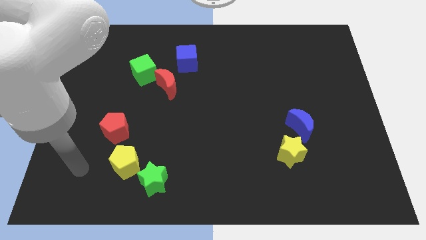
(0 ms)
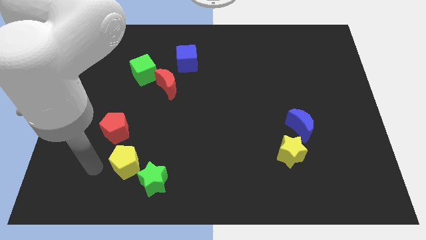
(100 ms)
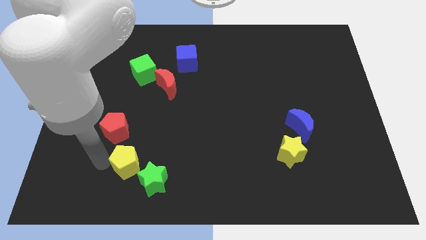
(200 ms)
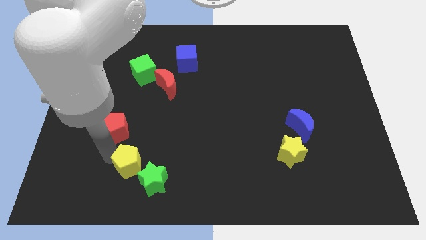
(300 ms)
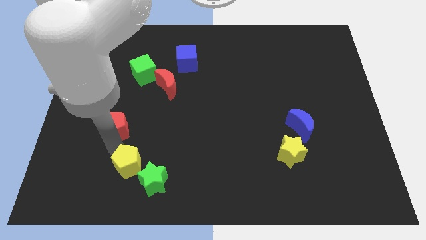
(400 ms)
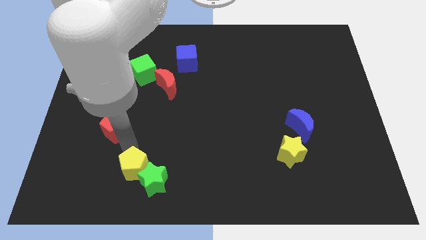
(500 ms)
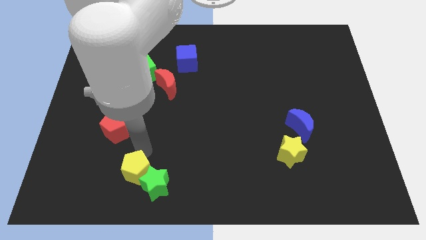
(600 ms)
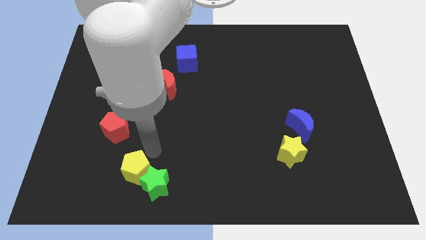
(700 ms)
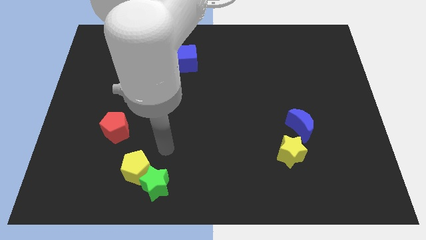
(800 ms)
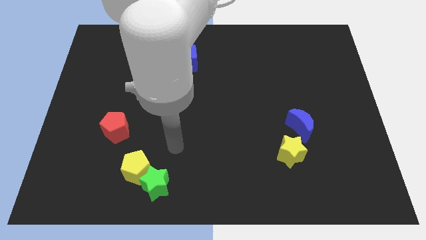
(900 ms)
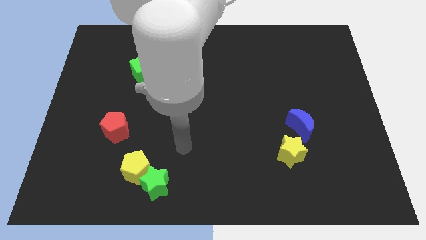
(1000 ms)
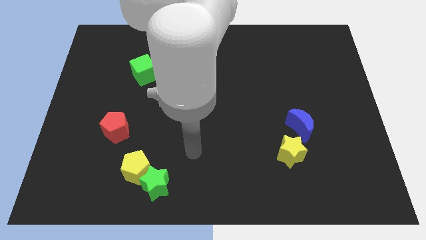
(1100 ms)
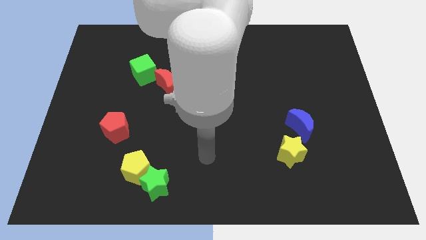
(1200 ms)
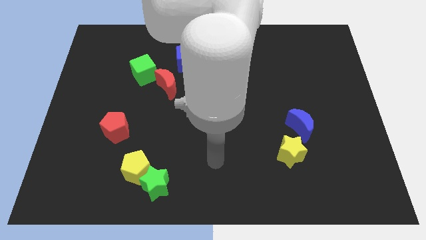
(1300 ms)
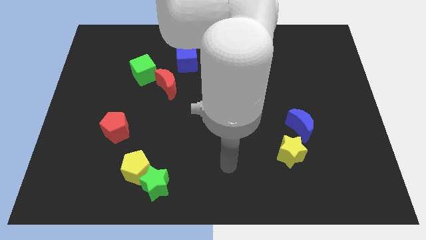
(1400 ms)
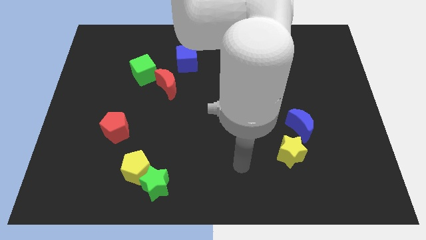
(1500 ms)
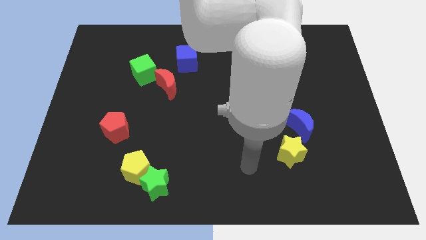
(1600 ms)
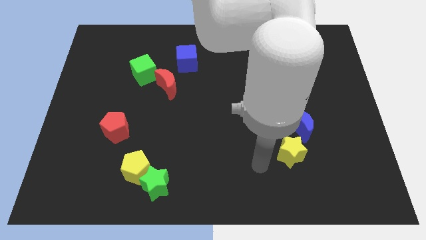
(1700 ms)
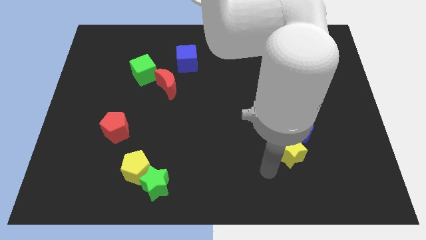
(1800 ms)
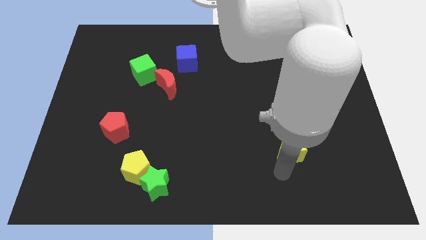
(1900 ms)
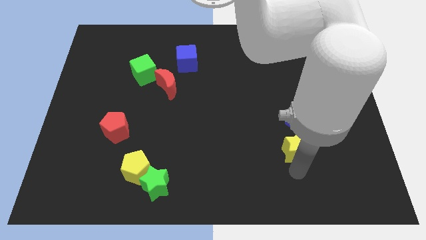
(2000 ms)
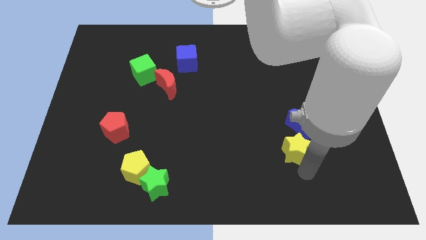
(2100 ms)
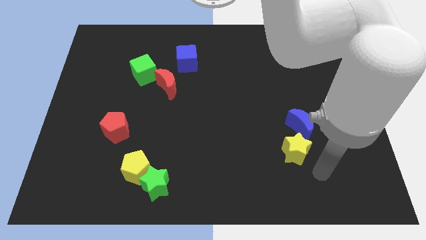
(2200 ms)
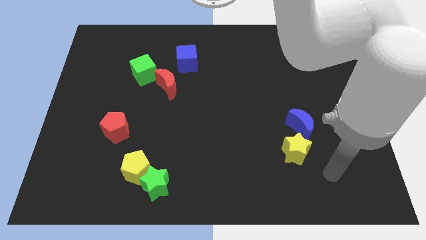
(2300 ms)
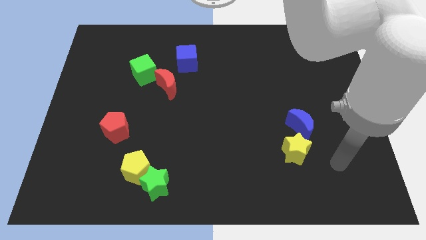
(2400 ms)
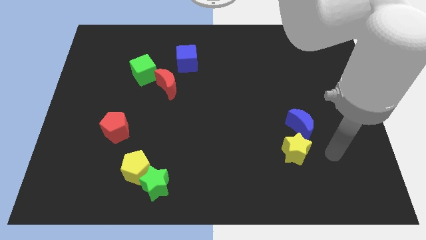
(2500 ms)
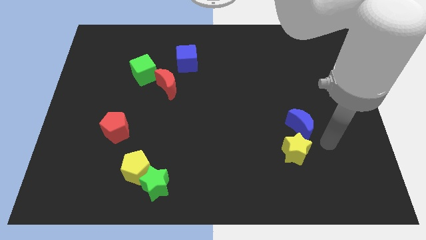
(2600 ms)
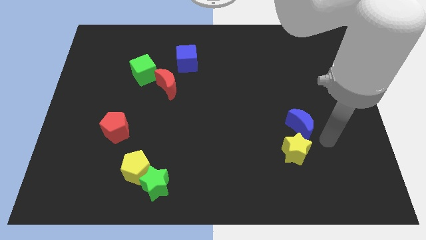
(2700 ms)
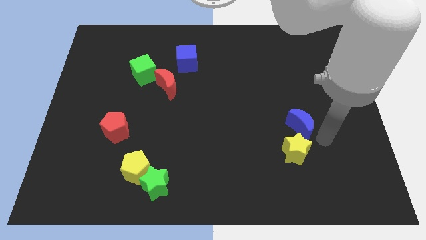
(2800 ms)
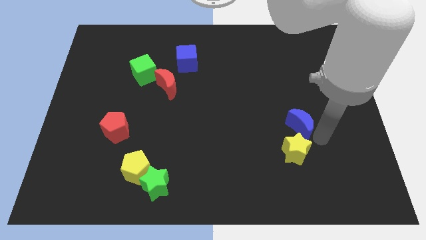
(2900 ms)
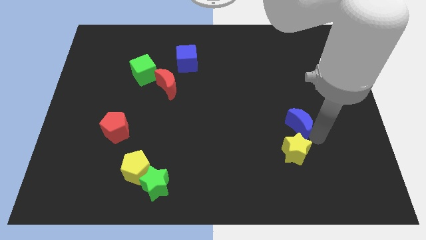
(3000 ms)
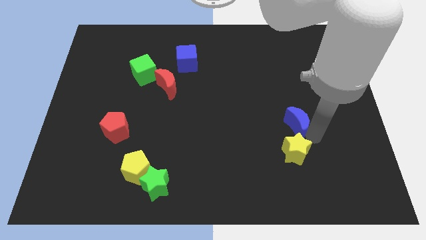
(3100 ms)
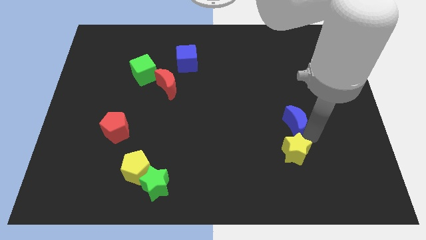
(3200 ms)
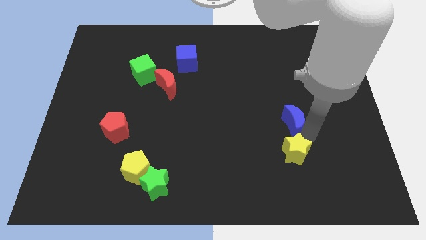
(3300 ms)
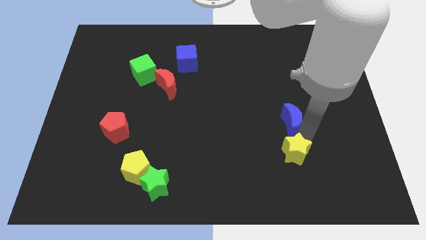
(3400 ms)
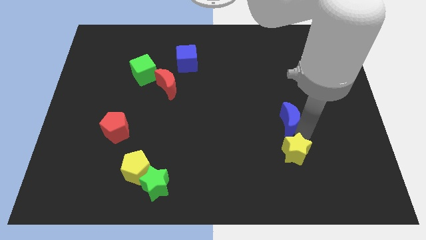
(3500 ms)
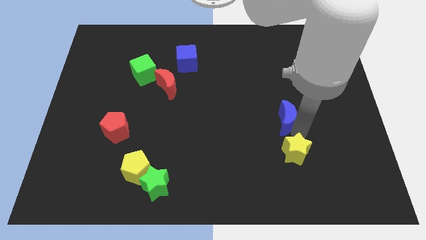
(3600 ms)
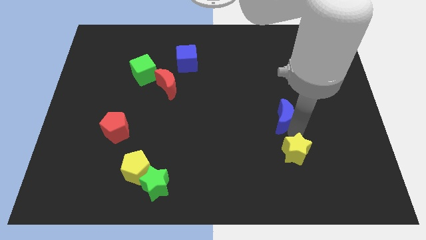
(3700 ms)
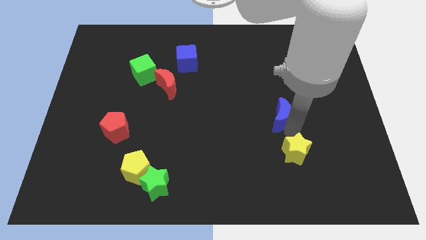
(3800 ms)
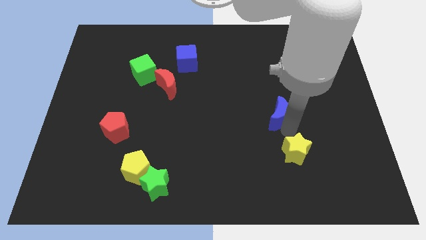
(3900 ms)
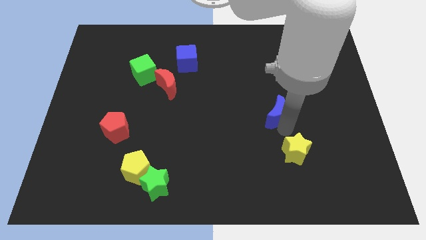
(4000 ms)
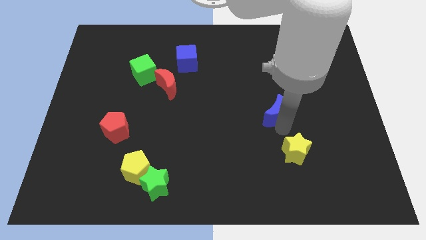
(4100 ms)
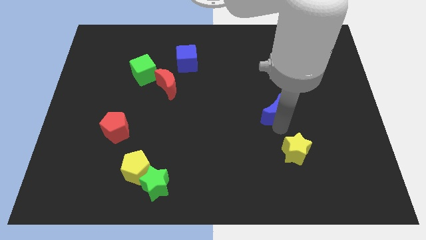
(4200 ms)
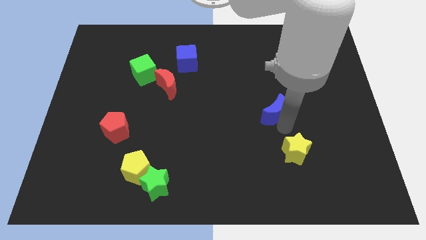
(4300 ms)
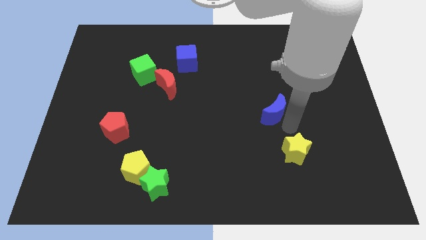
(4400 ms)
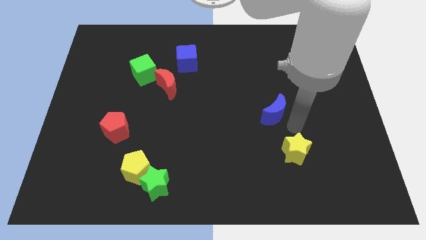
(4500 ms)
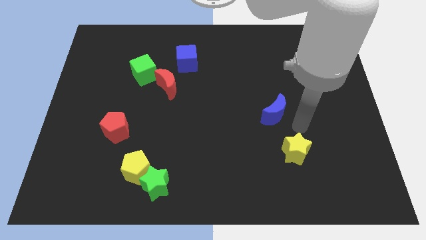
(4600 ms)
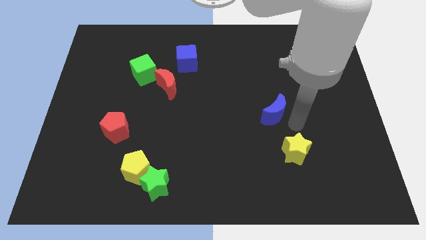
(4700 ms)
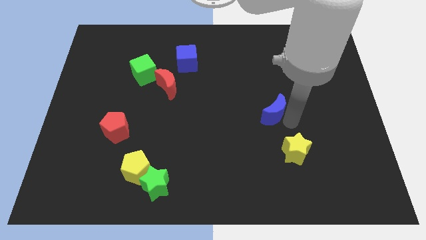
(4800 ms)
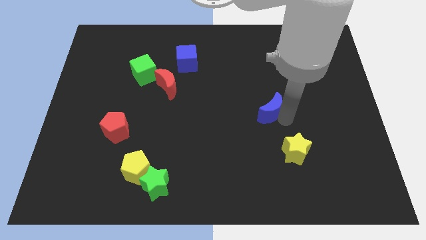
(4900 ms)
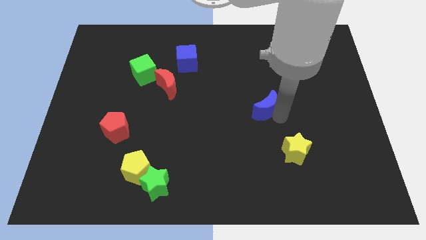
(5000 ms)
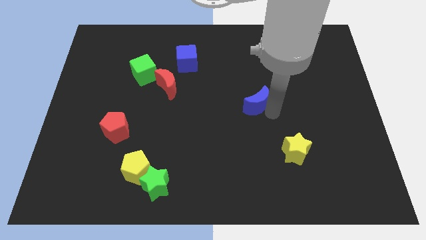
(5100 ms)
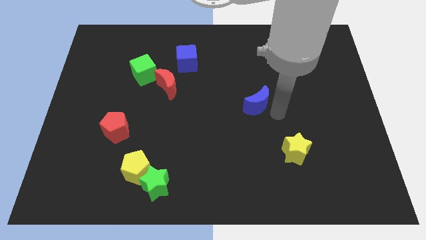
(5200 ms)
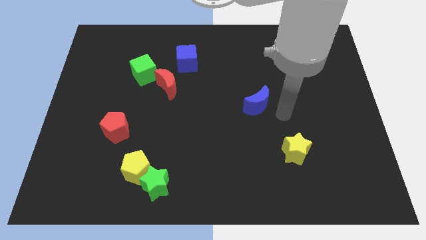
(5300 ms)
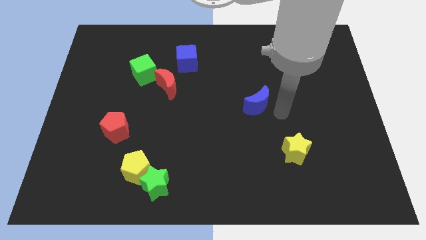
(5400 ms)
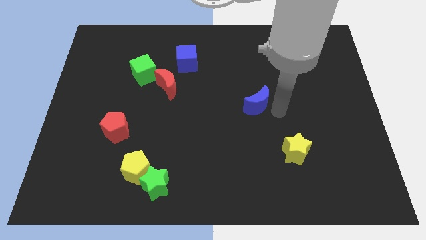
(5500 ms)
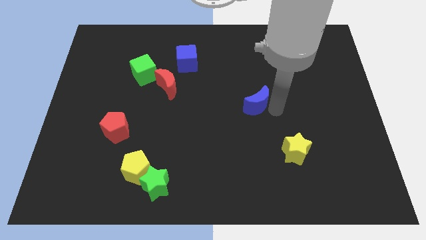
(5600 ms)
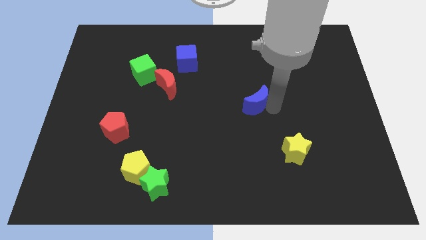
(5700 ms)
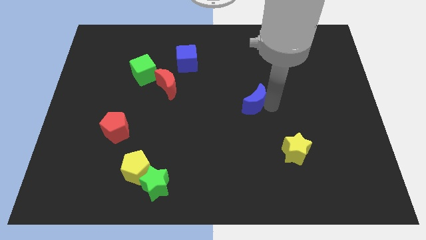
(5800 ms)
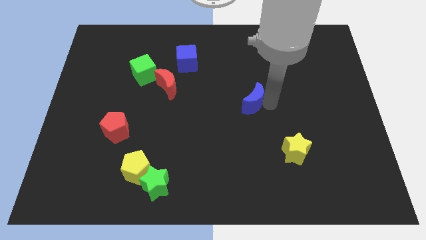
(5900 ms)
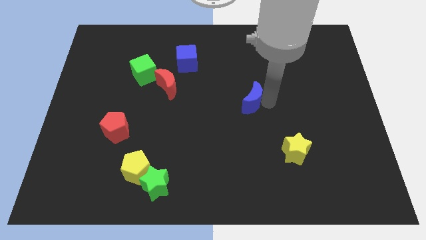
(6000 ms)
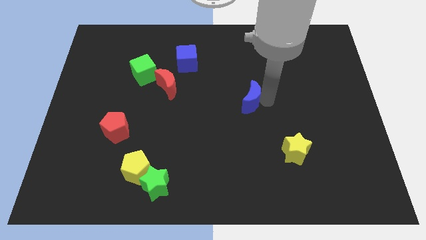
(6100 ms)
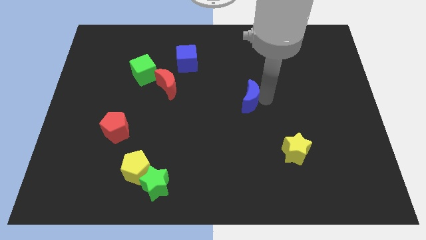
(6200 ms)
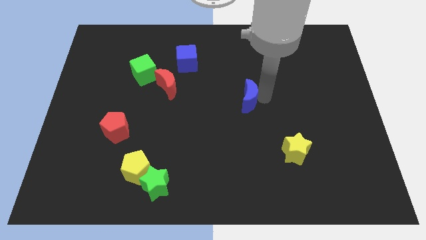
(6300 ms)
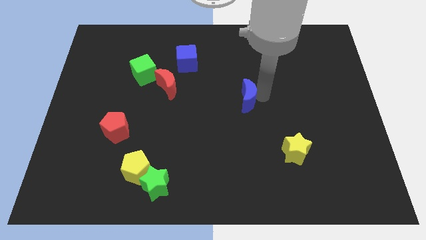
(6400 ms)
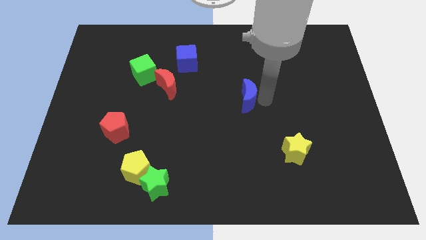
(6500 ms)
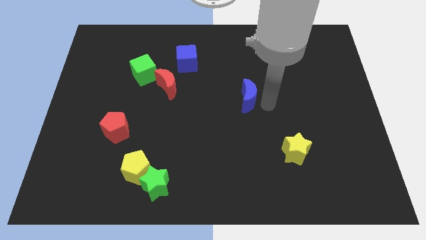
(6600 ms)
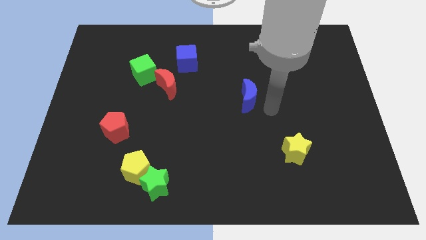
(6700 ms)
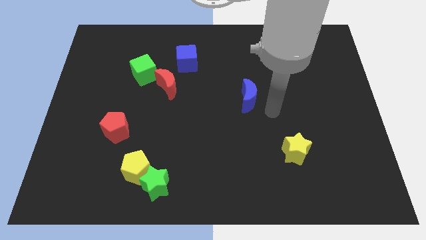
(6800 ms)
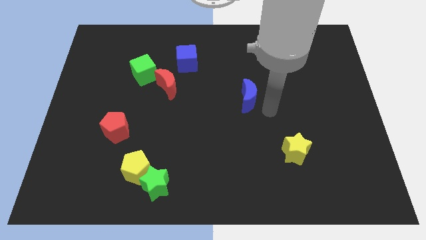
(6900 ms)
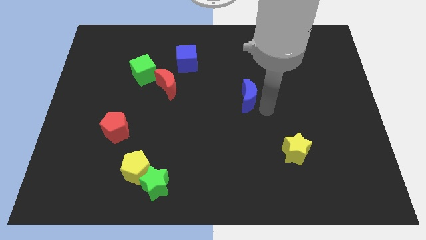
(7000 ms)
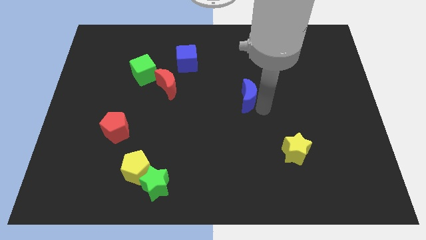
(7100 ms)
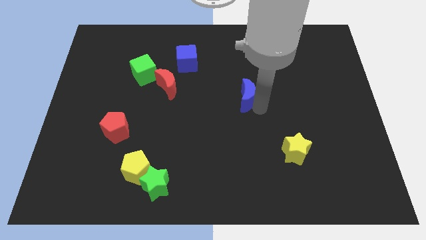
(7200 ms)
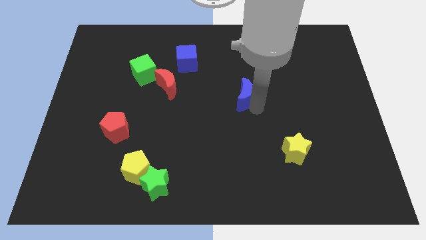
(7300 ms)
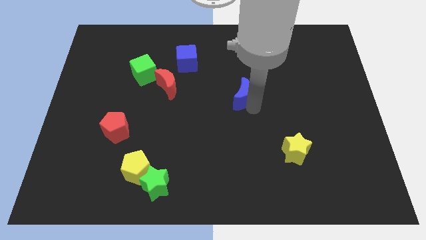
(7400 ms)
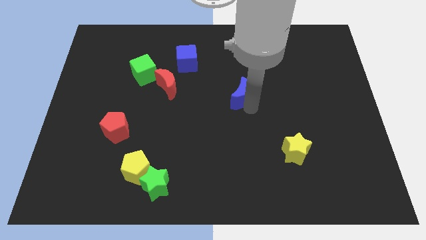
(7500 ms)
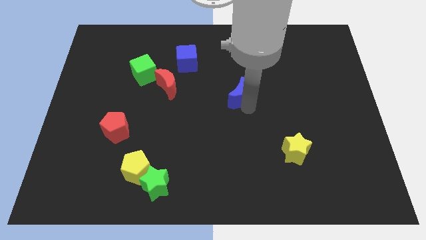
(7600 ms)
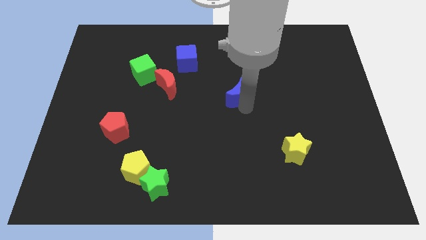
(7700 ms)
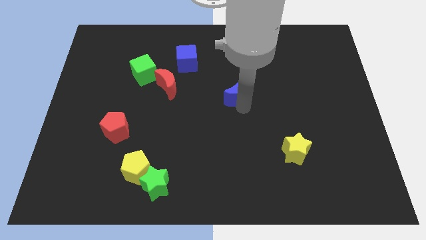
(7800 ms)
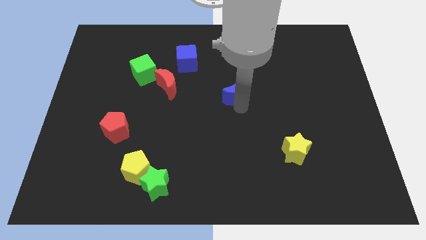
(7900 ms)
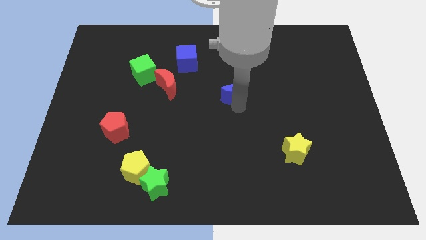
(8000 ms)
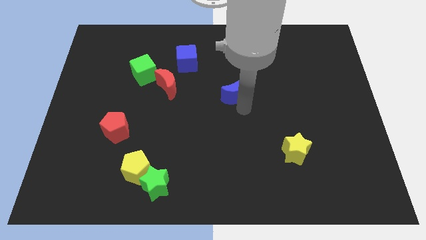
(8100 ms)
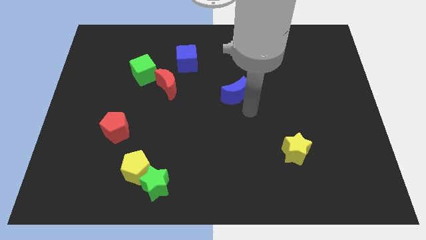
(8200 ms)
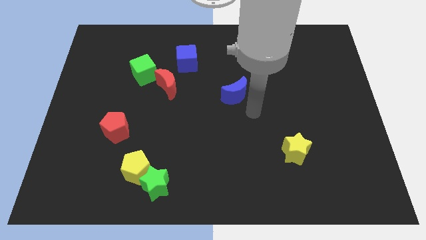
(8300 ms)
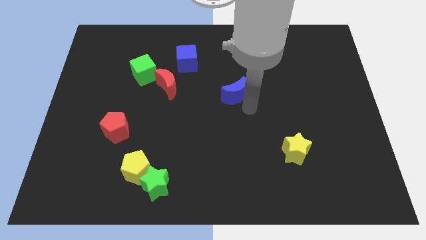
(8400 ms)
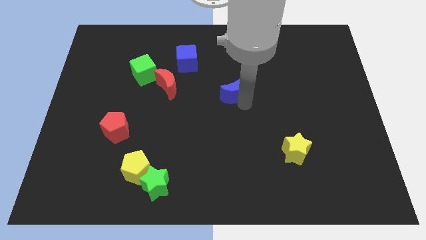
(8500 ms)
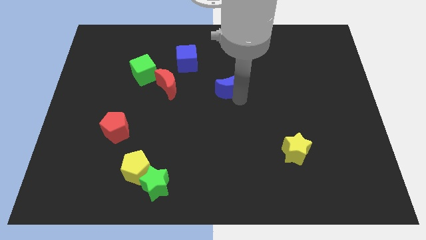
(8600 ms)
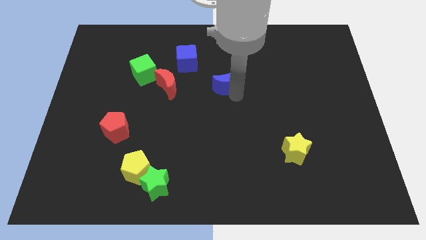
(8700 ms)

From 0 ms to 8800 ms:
push the blue moon upwards and to the left
